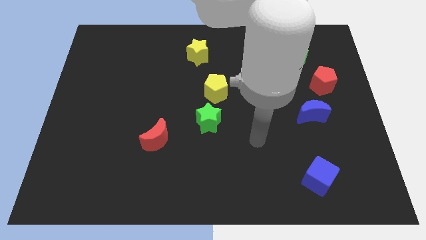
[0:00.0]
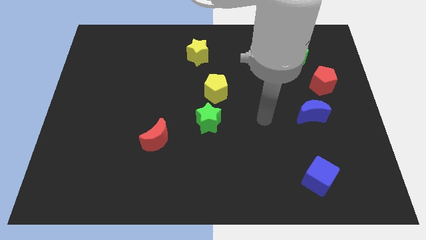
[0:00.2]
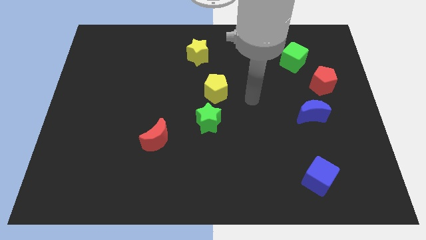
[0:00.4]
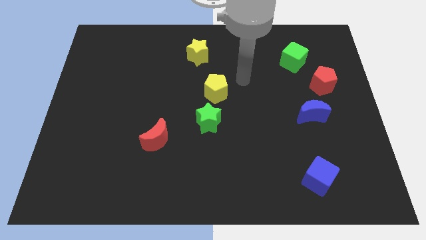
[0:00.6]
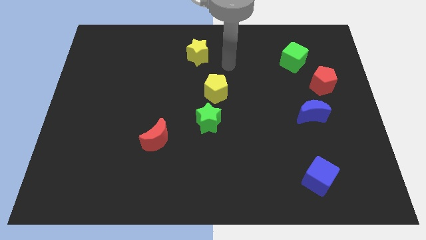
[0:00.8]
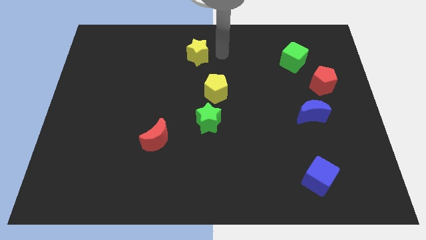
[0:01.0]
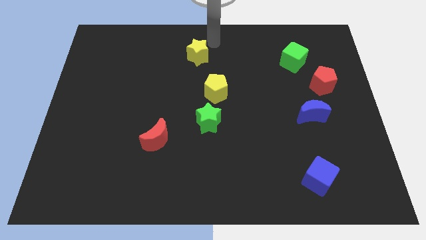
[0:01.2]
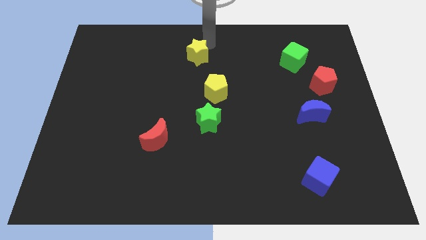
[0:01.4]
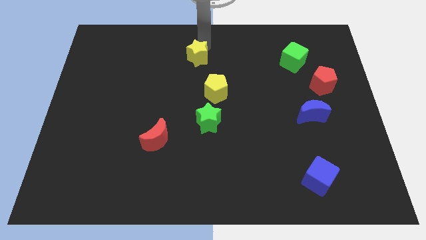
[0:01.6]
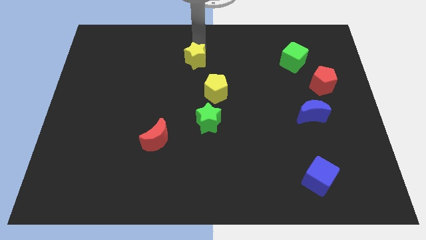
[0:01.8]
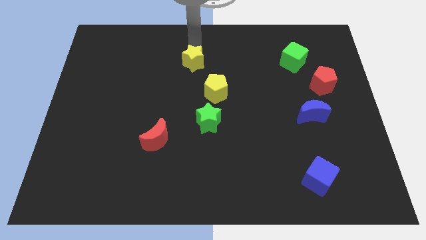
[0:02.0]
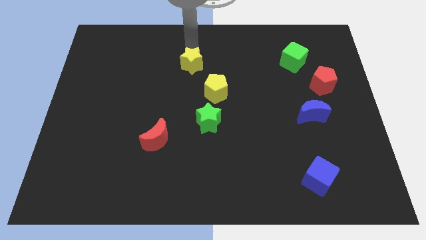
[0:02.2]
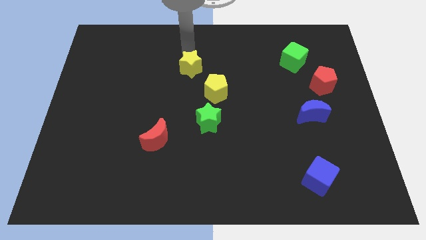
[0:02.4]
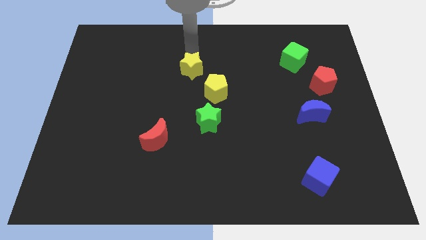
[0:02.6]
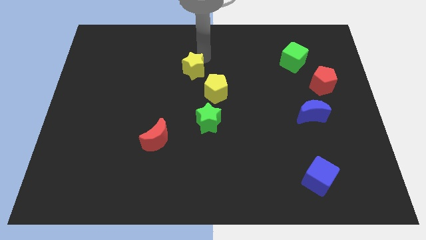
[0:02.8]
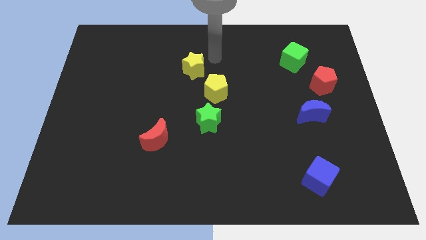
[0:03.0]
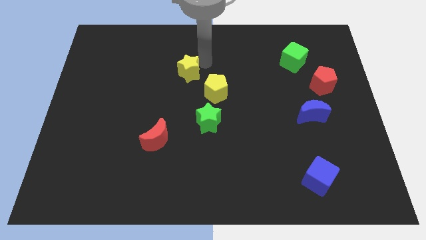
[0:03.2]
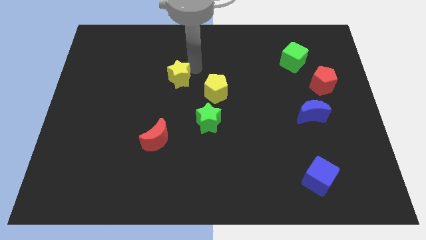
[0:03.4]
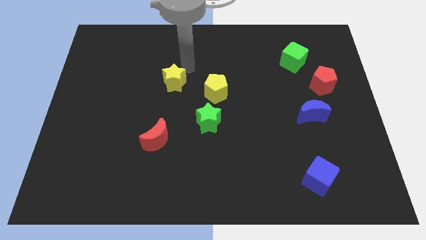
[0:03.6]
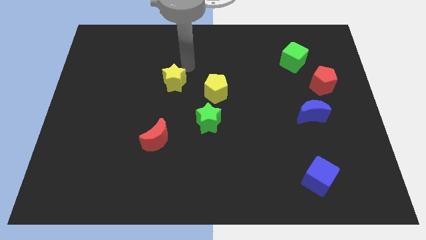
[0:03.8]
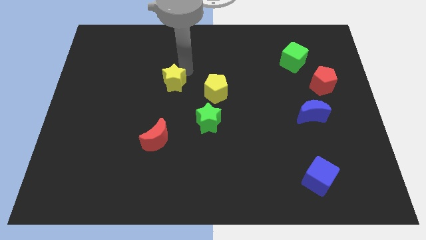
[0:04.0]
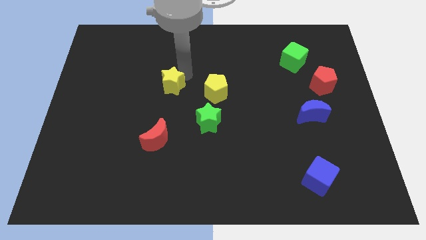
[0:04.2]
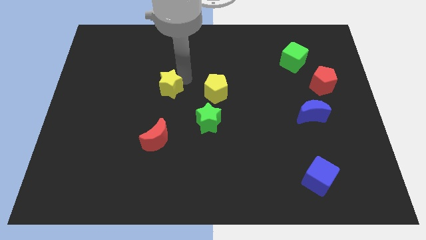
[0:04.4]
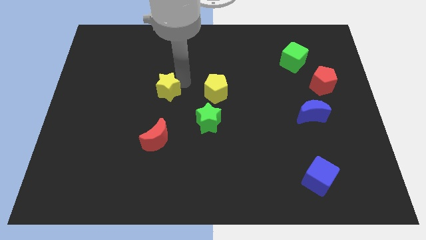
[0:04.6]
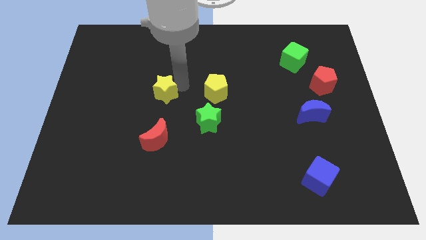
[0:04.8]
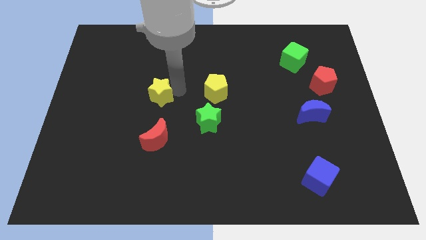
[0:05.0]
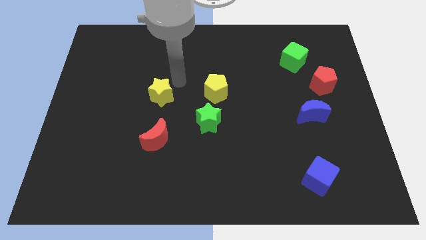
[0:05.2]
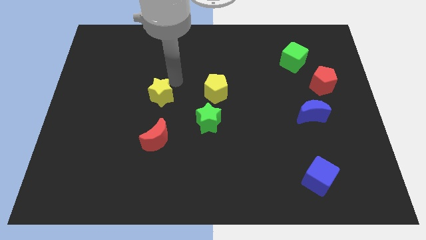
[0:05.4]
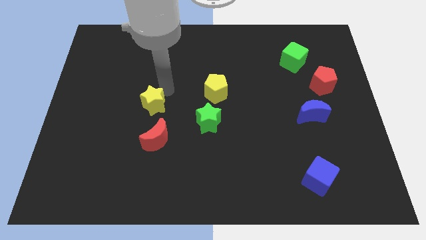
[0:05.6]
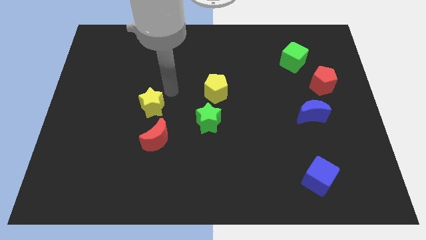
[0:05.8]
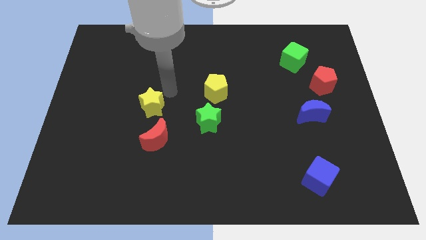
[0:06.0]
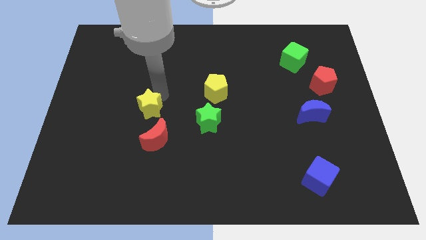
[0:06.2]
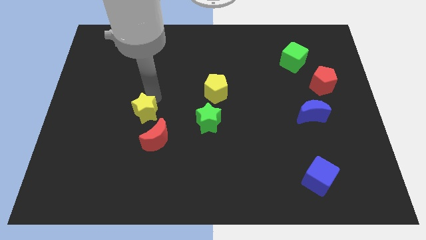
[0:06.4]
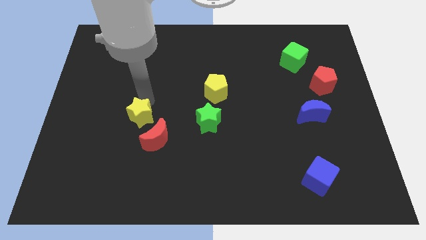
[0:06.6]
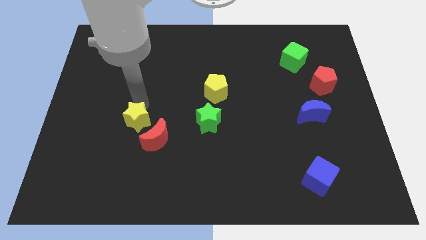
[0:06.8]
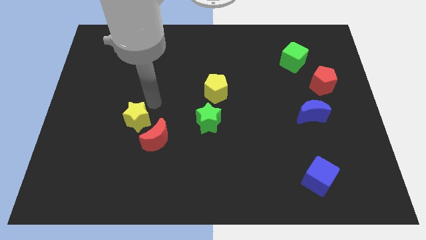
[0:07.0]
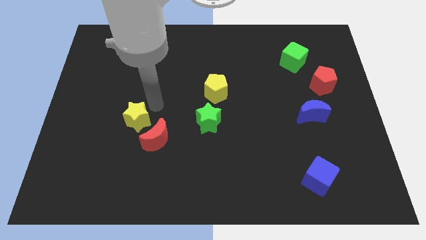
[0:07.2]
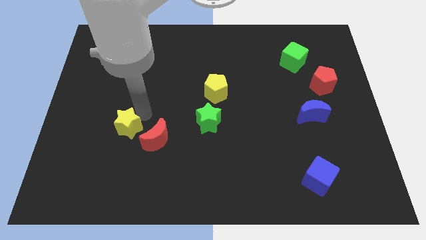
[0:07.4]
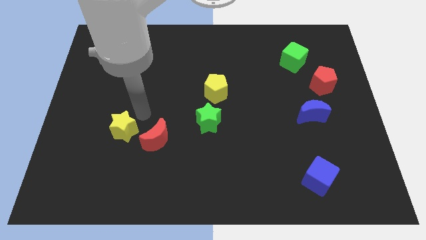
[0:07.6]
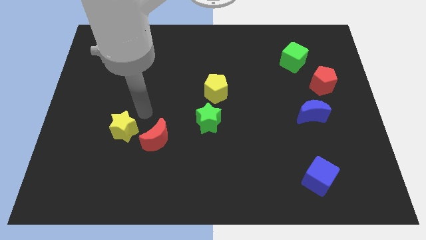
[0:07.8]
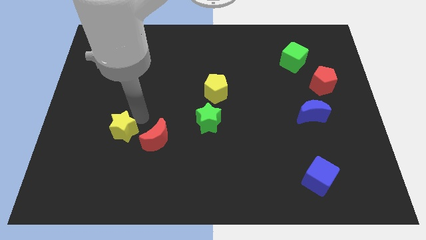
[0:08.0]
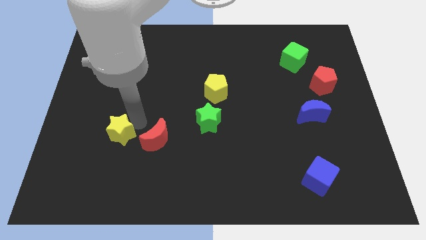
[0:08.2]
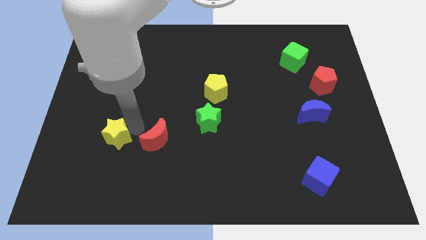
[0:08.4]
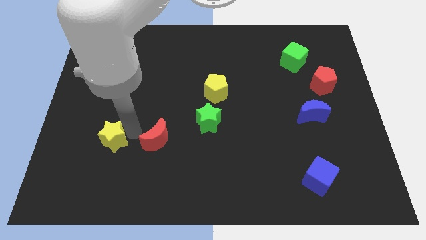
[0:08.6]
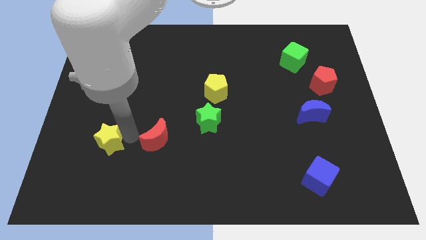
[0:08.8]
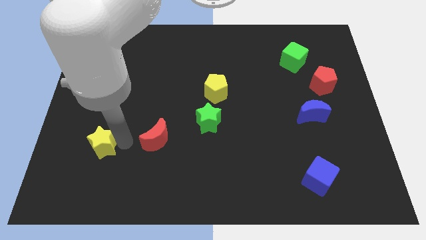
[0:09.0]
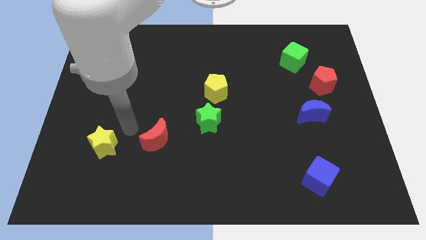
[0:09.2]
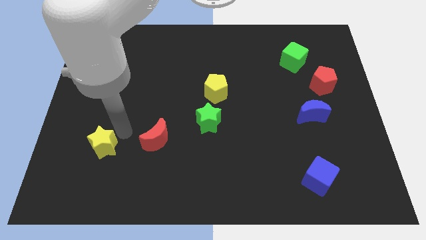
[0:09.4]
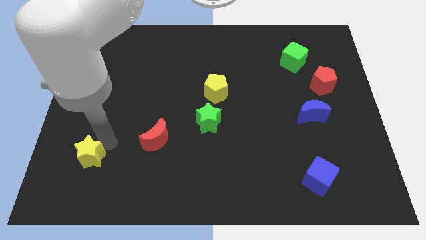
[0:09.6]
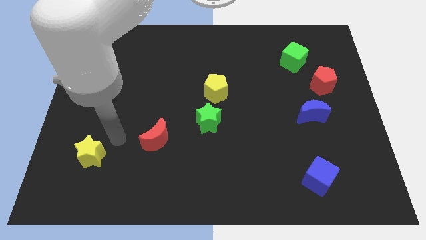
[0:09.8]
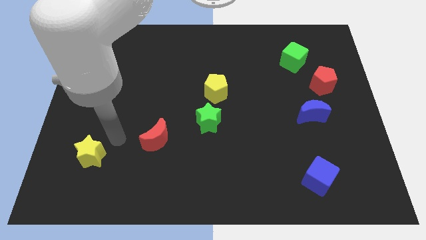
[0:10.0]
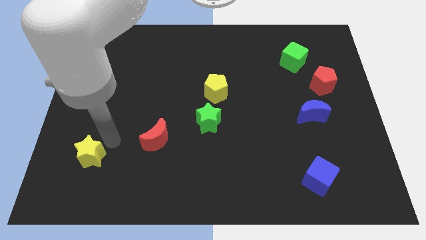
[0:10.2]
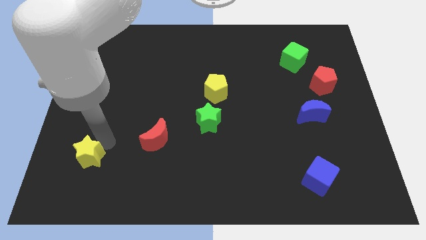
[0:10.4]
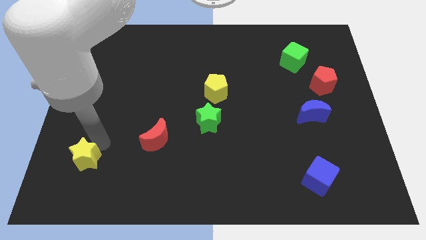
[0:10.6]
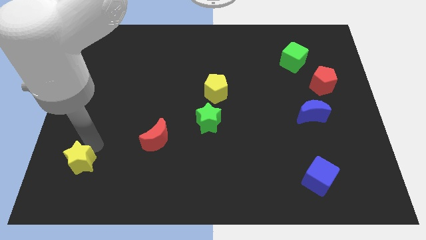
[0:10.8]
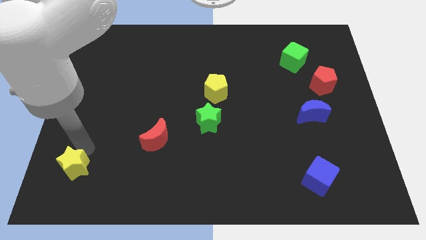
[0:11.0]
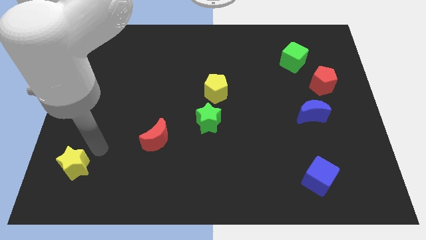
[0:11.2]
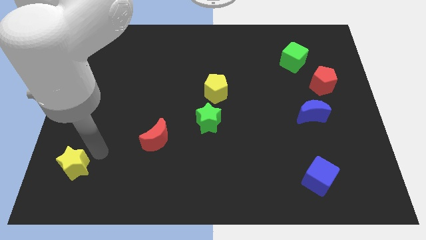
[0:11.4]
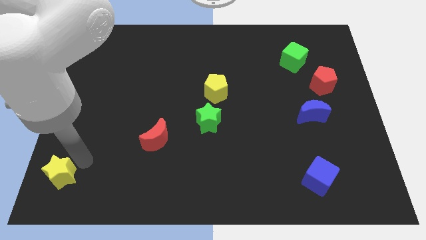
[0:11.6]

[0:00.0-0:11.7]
put the yellow star to the bottom left

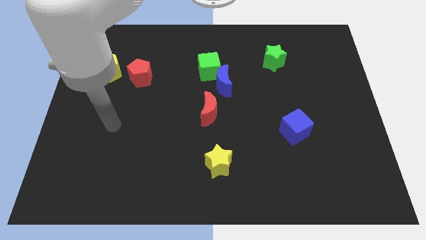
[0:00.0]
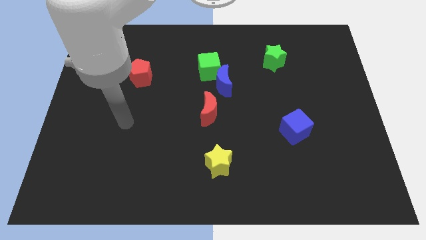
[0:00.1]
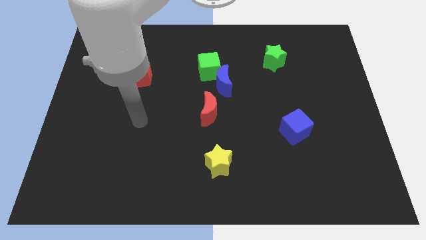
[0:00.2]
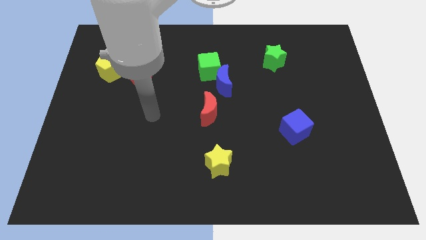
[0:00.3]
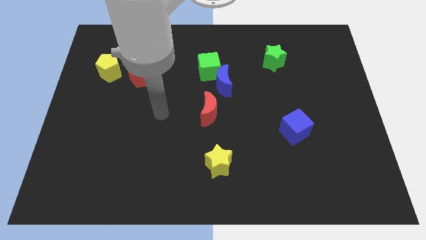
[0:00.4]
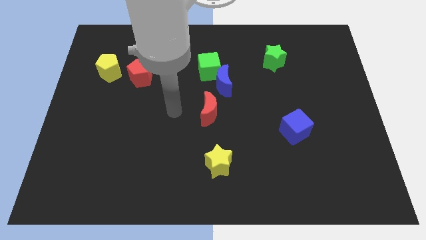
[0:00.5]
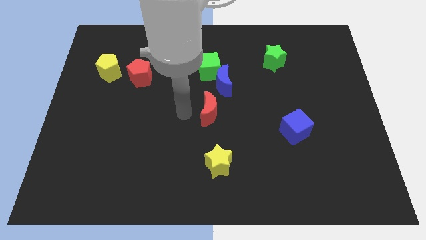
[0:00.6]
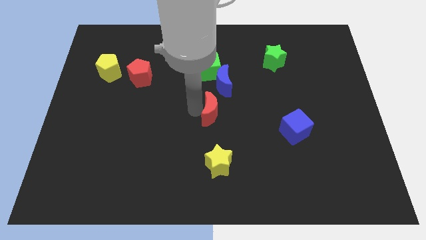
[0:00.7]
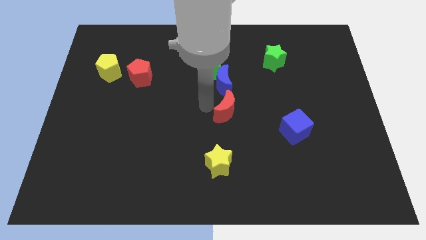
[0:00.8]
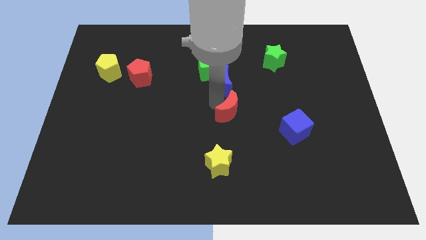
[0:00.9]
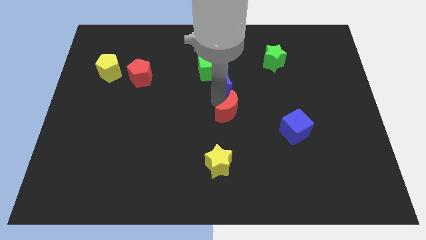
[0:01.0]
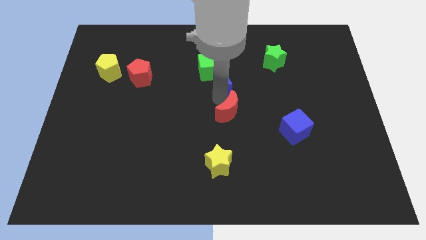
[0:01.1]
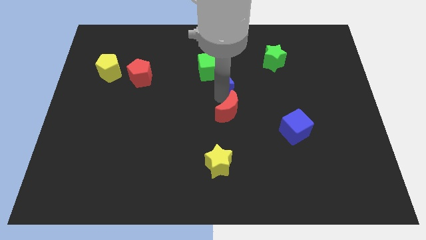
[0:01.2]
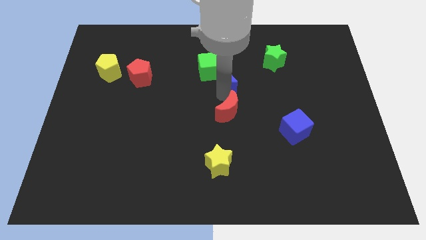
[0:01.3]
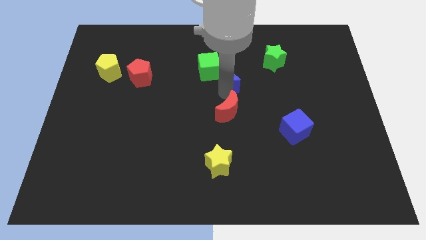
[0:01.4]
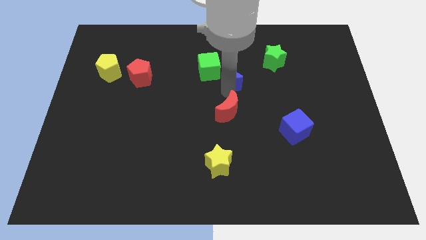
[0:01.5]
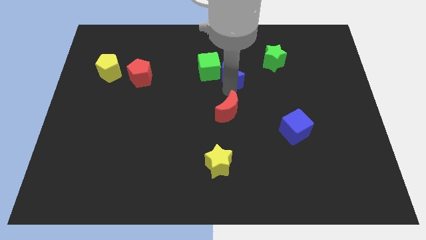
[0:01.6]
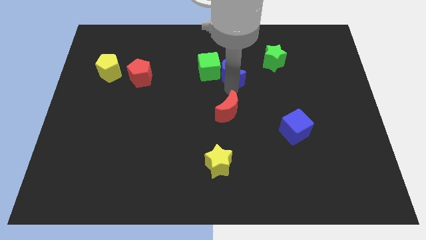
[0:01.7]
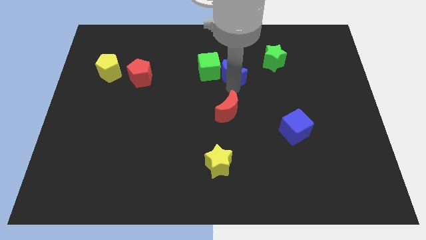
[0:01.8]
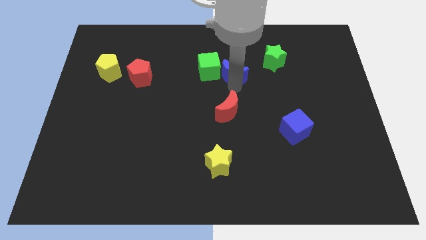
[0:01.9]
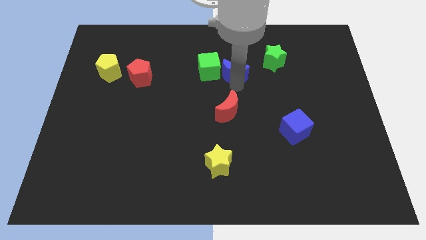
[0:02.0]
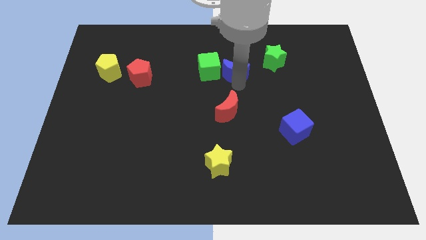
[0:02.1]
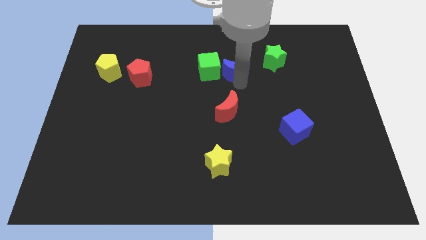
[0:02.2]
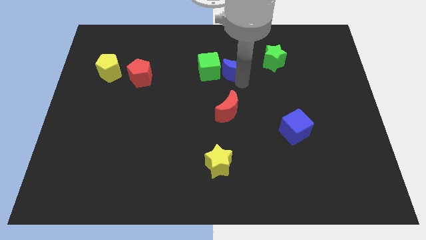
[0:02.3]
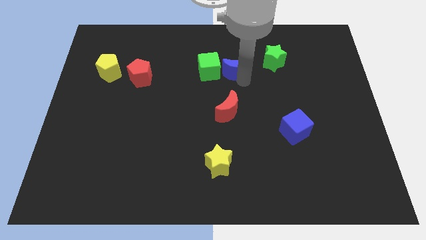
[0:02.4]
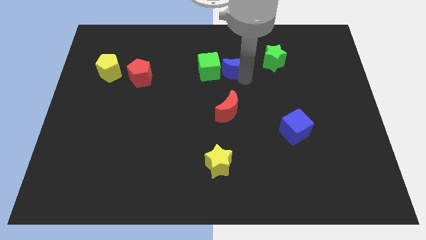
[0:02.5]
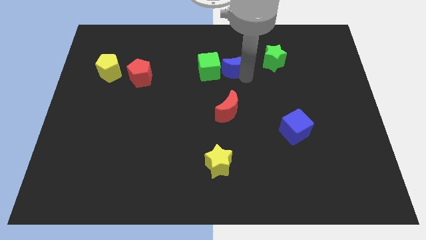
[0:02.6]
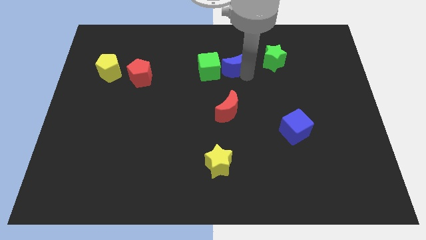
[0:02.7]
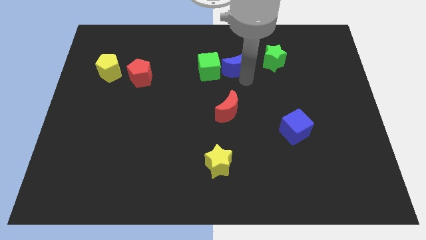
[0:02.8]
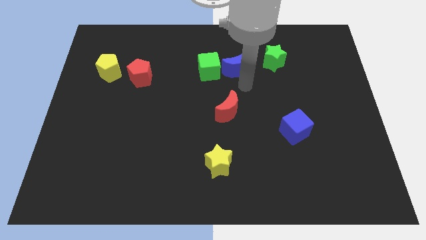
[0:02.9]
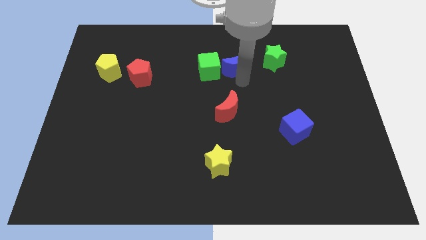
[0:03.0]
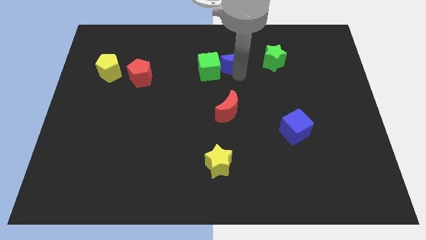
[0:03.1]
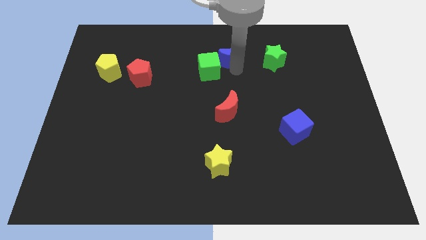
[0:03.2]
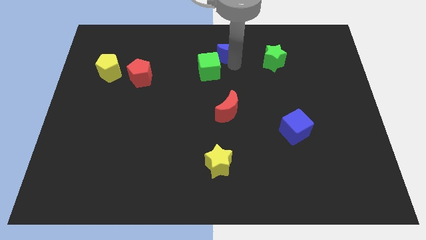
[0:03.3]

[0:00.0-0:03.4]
slide the blue moon to the towards your base
